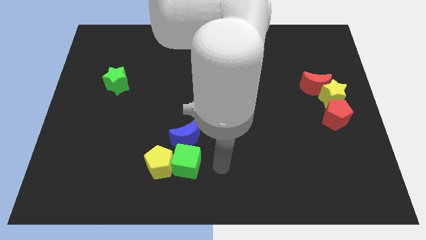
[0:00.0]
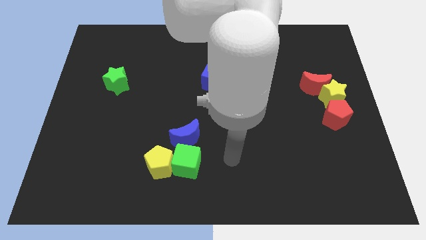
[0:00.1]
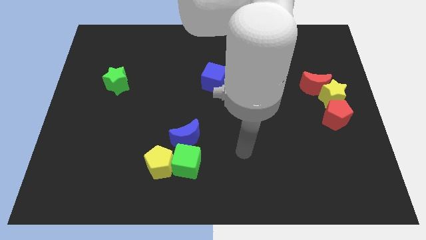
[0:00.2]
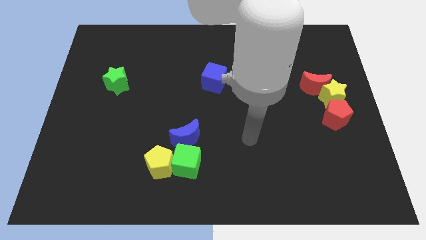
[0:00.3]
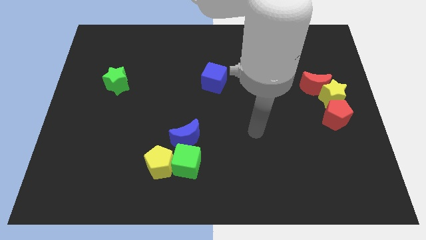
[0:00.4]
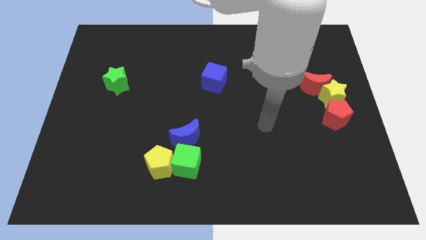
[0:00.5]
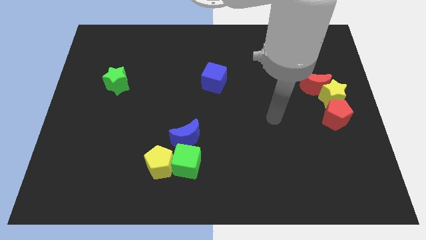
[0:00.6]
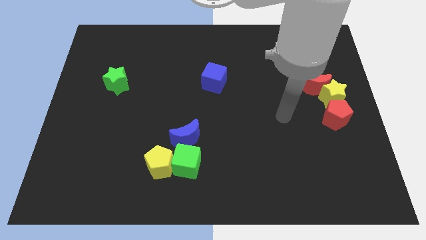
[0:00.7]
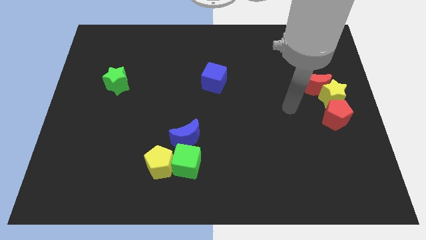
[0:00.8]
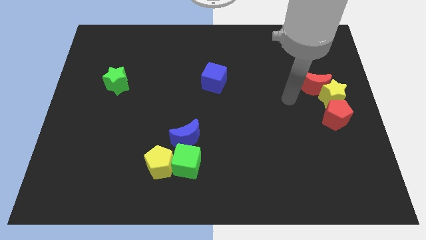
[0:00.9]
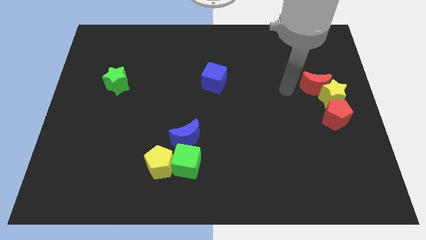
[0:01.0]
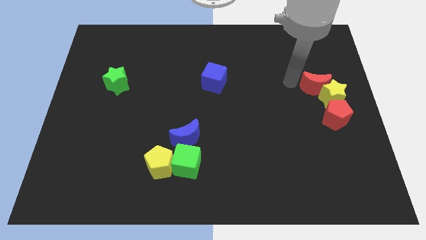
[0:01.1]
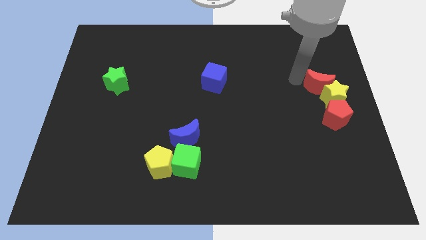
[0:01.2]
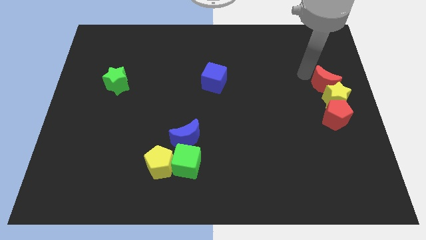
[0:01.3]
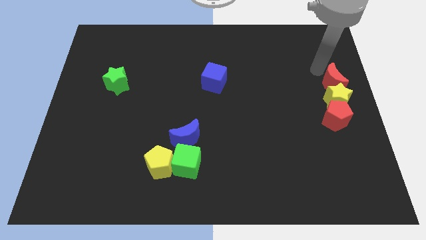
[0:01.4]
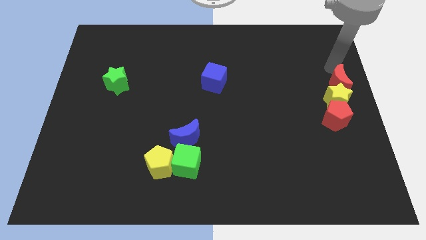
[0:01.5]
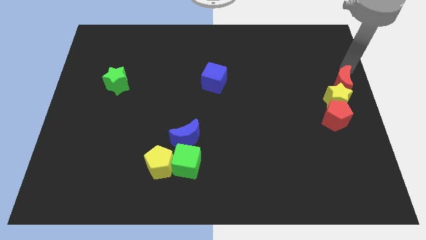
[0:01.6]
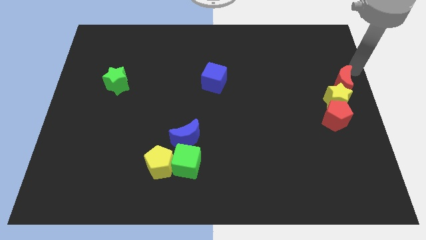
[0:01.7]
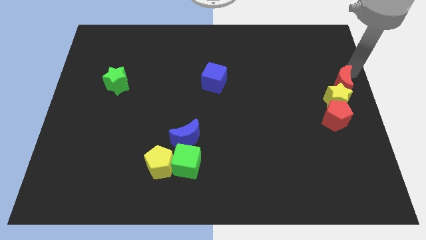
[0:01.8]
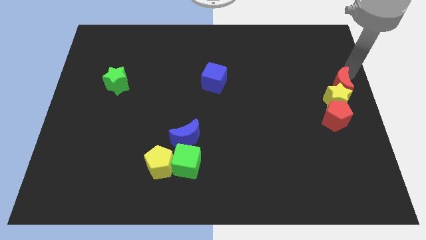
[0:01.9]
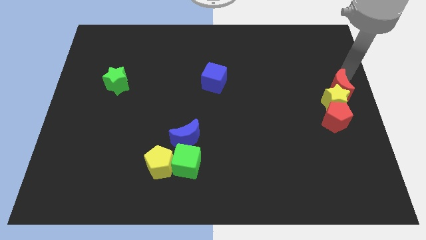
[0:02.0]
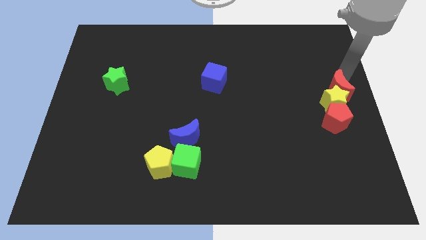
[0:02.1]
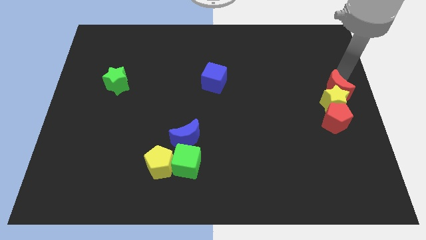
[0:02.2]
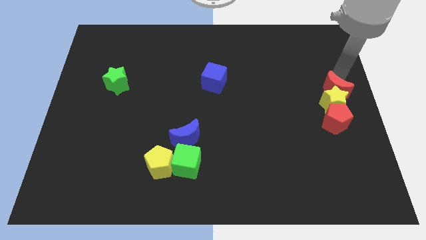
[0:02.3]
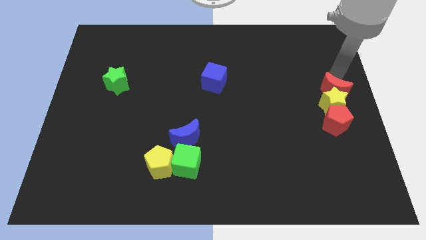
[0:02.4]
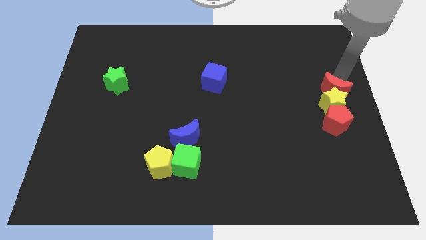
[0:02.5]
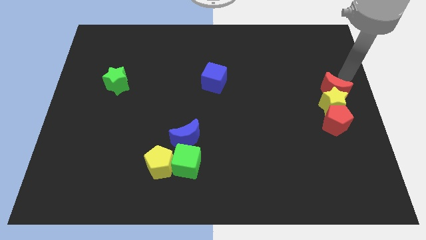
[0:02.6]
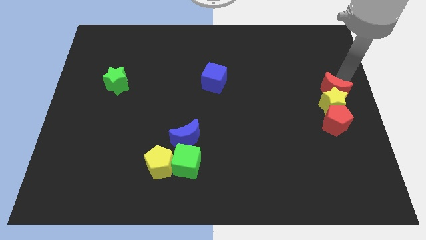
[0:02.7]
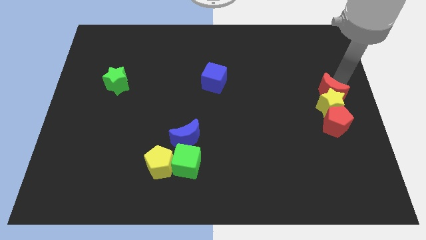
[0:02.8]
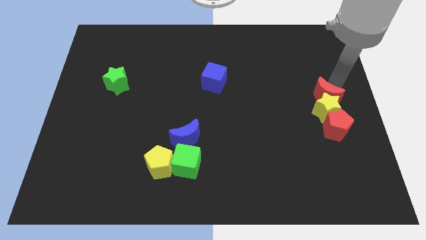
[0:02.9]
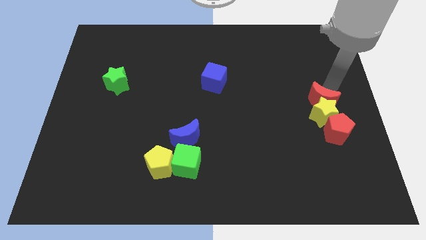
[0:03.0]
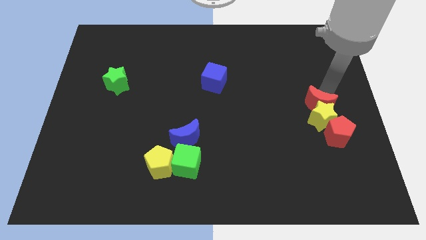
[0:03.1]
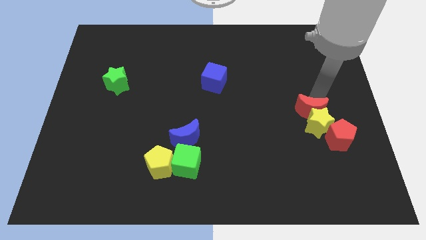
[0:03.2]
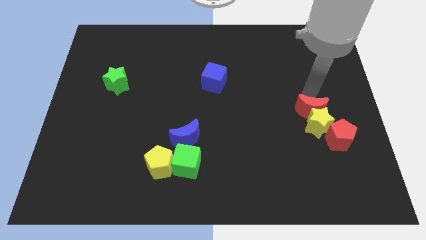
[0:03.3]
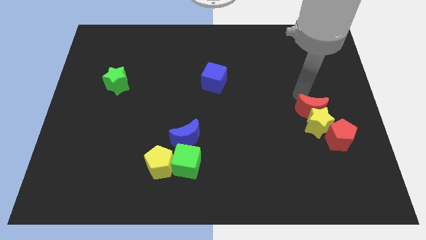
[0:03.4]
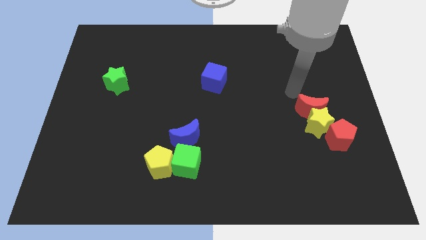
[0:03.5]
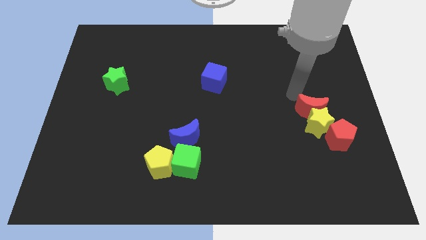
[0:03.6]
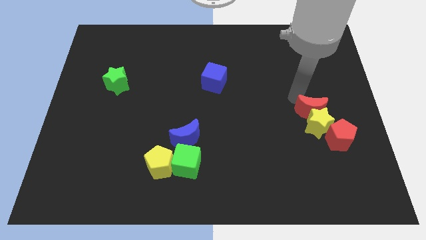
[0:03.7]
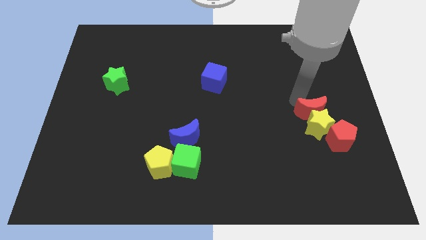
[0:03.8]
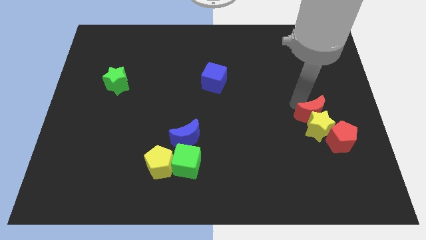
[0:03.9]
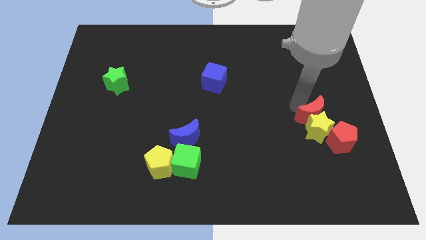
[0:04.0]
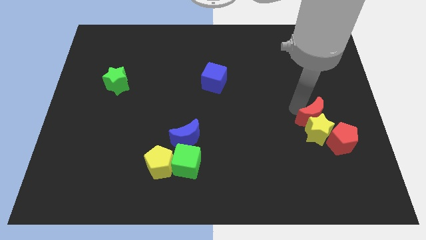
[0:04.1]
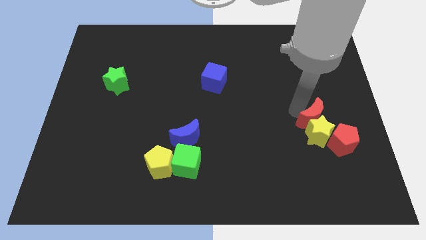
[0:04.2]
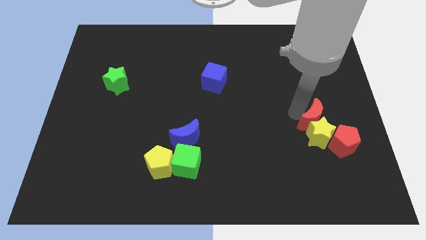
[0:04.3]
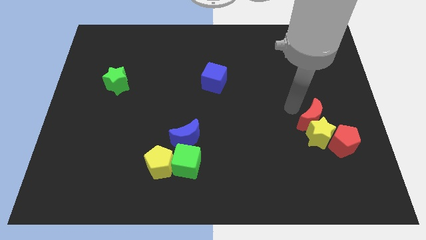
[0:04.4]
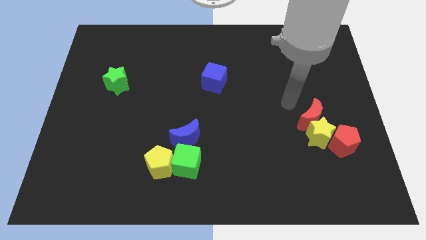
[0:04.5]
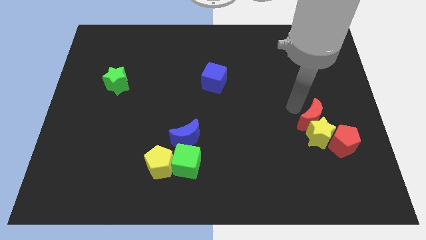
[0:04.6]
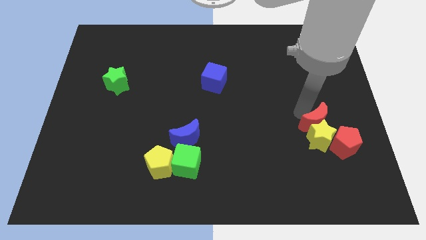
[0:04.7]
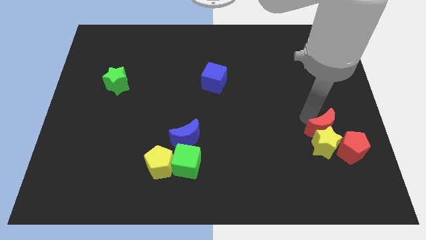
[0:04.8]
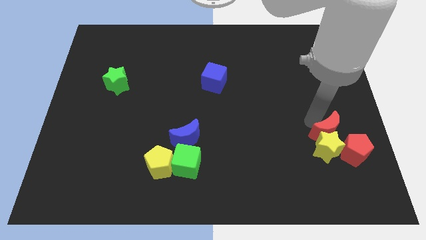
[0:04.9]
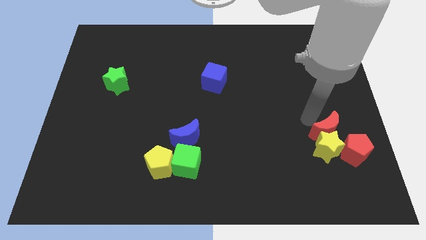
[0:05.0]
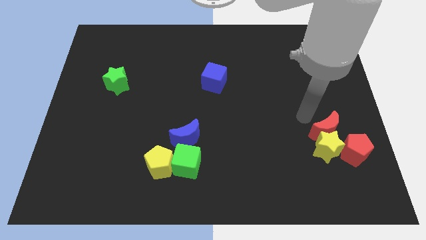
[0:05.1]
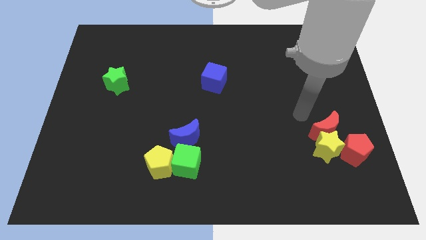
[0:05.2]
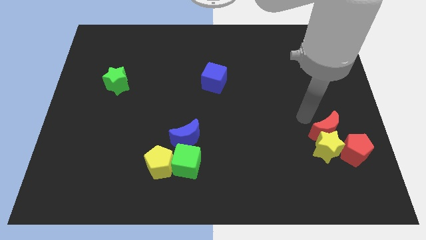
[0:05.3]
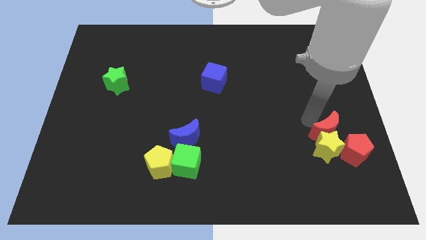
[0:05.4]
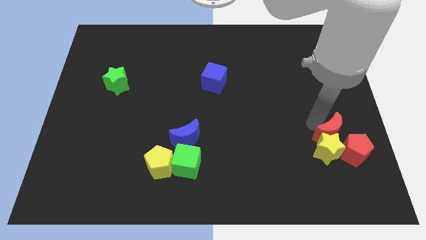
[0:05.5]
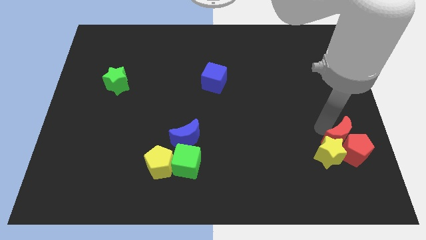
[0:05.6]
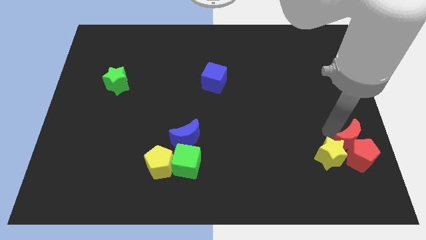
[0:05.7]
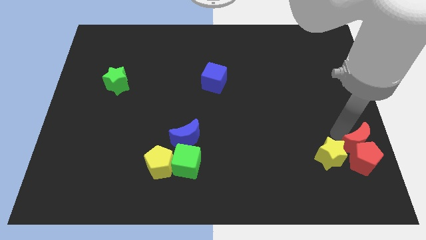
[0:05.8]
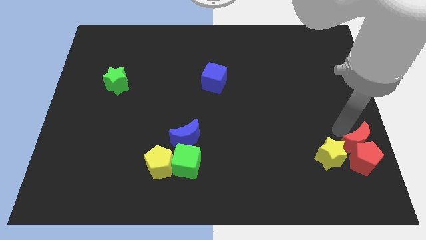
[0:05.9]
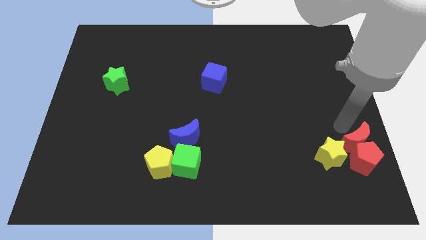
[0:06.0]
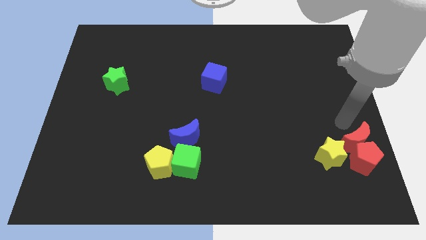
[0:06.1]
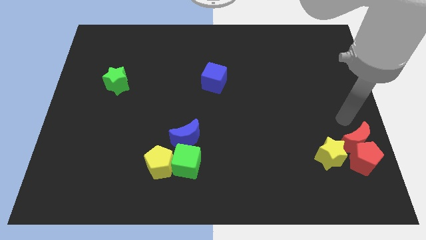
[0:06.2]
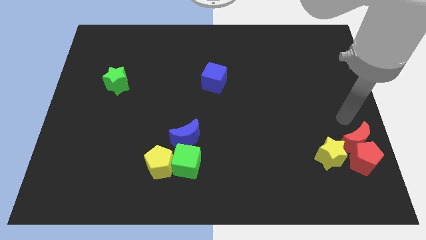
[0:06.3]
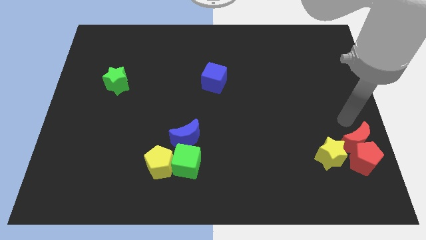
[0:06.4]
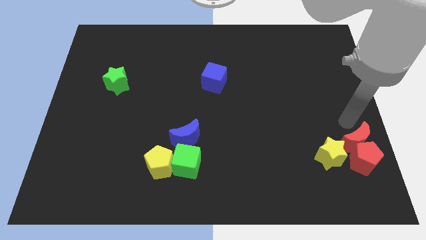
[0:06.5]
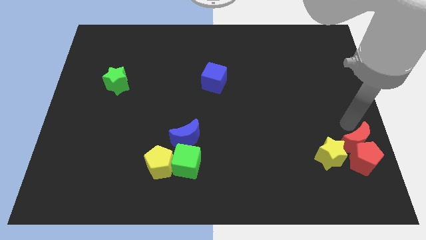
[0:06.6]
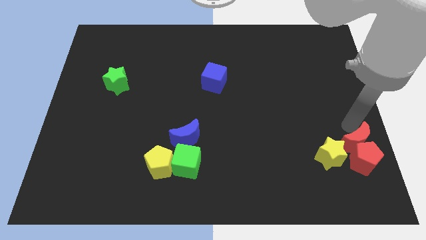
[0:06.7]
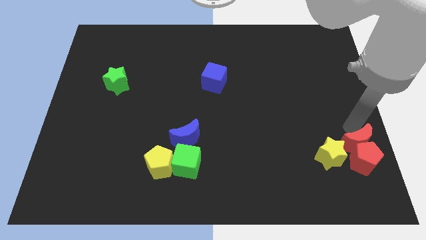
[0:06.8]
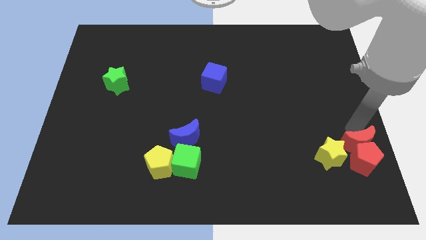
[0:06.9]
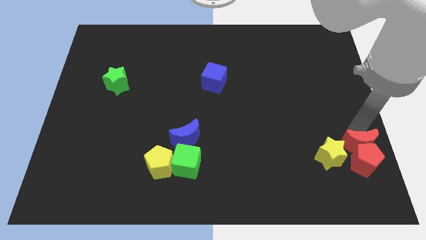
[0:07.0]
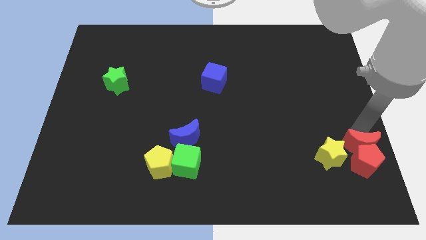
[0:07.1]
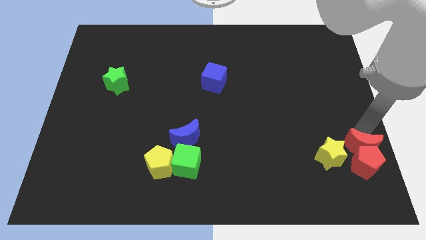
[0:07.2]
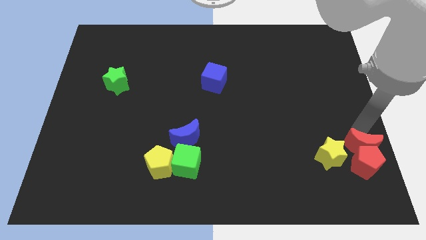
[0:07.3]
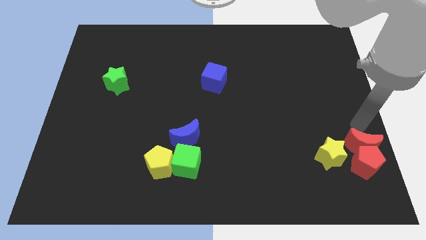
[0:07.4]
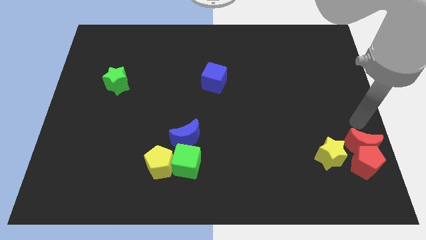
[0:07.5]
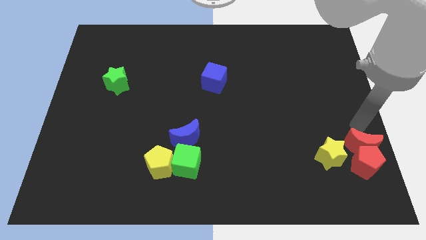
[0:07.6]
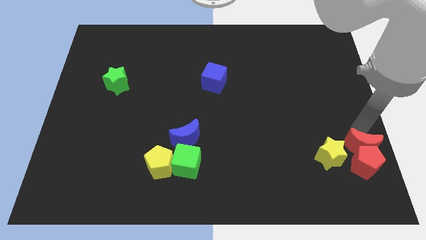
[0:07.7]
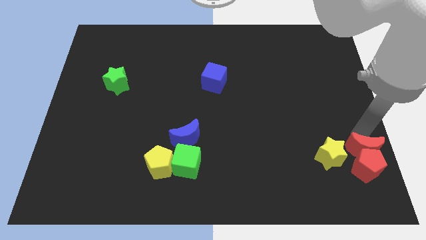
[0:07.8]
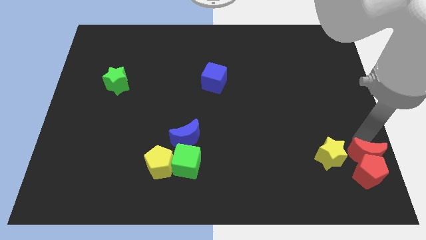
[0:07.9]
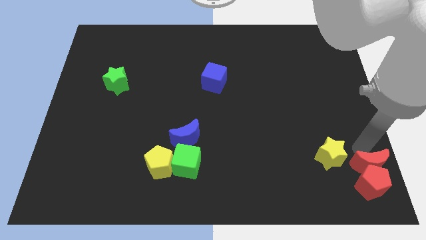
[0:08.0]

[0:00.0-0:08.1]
move the red moon to the bottom right of the board
